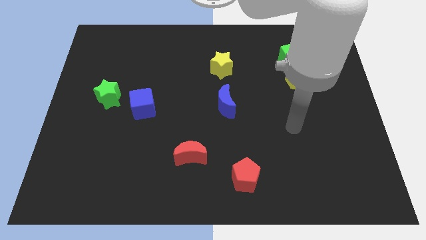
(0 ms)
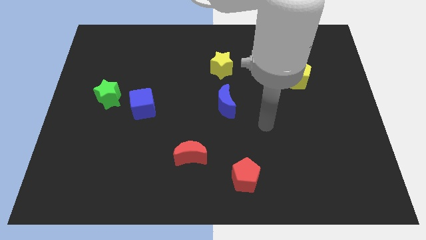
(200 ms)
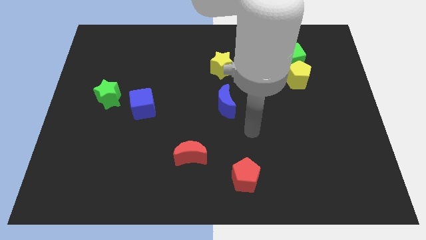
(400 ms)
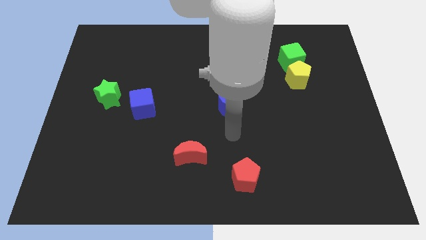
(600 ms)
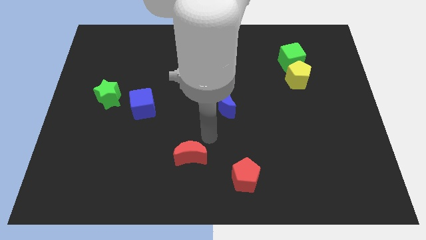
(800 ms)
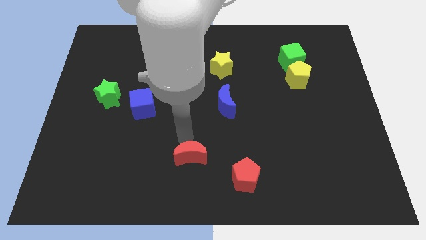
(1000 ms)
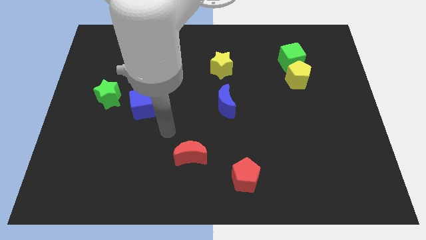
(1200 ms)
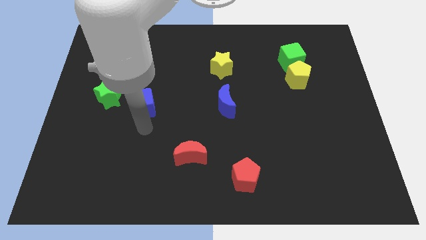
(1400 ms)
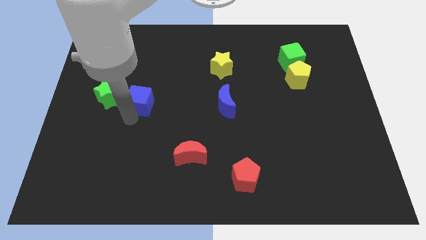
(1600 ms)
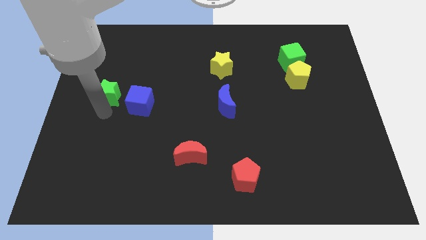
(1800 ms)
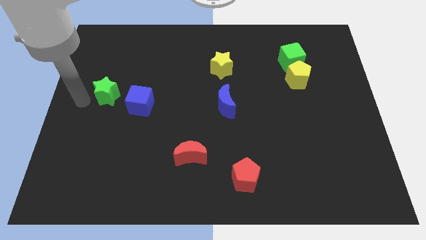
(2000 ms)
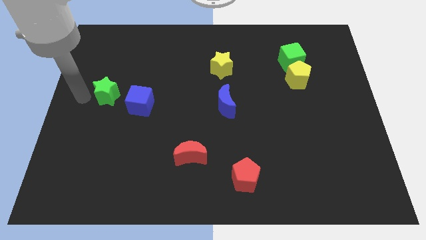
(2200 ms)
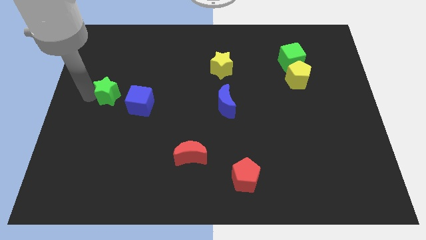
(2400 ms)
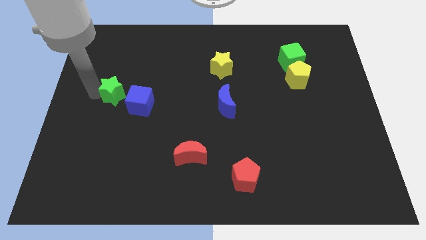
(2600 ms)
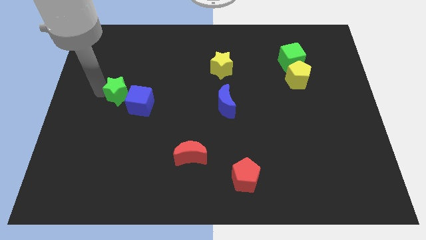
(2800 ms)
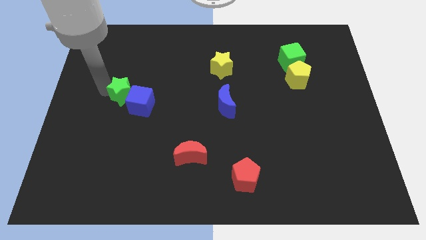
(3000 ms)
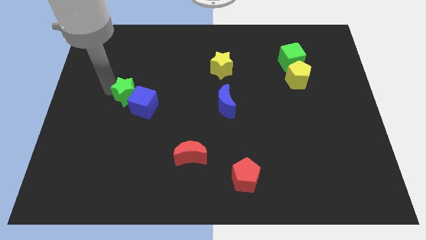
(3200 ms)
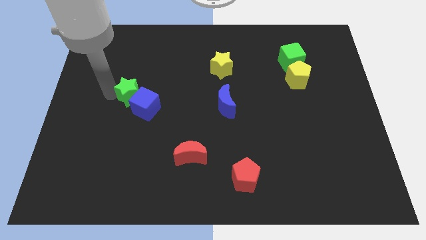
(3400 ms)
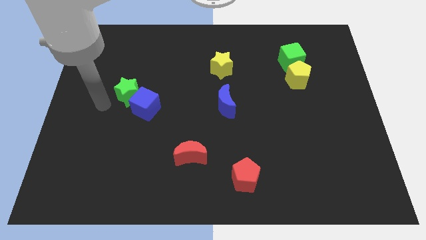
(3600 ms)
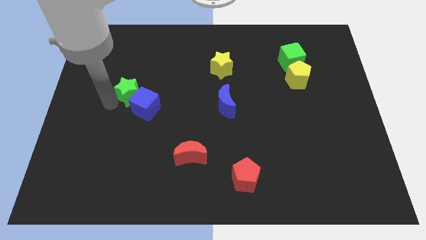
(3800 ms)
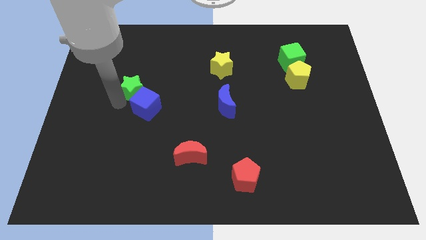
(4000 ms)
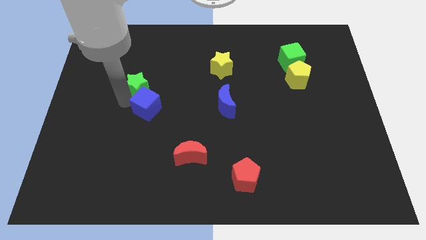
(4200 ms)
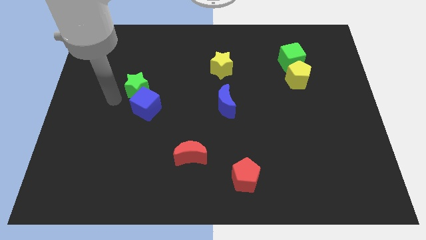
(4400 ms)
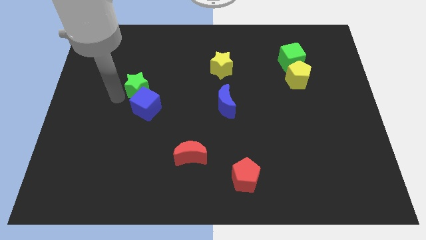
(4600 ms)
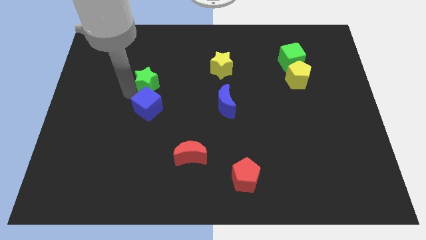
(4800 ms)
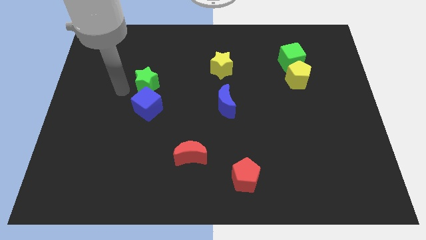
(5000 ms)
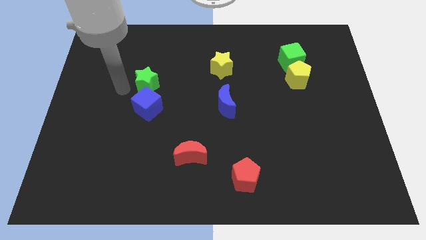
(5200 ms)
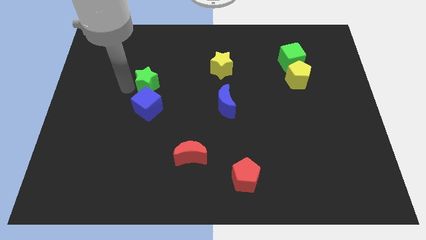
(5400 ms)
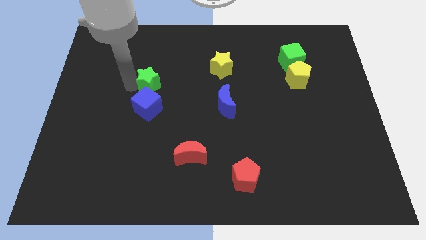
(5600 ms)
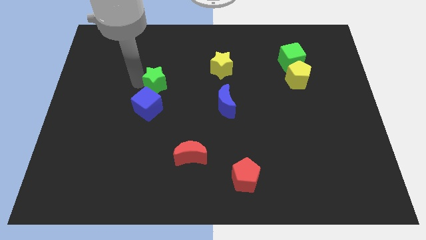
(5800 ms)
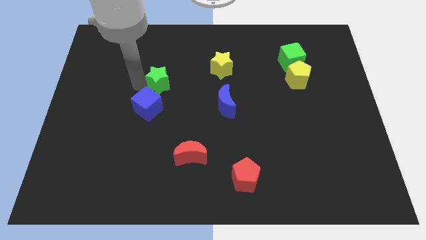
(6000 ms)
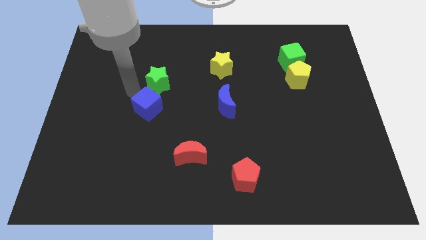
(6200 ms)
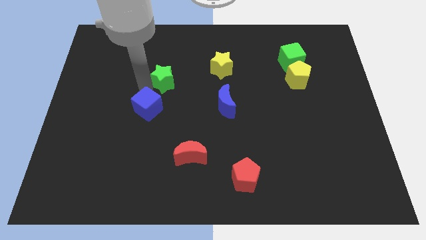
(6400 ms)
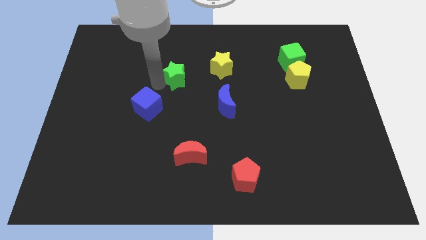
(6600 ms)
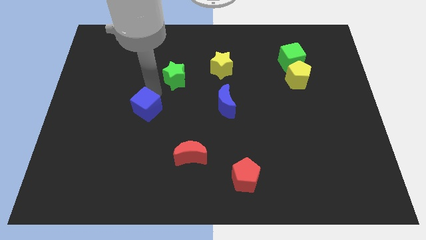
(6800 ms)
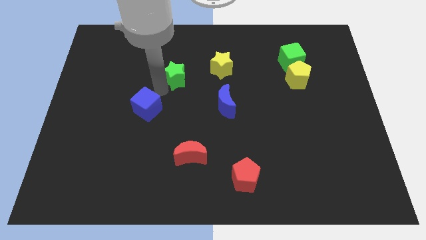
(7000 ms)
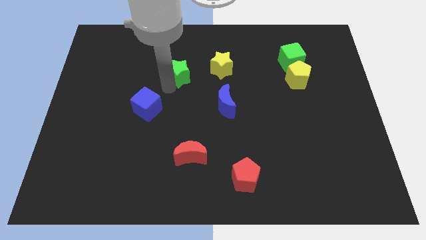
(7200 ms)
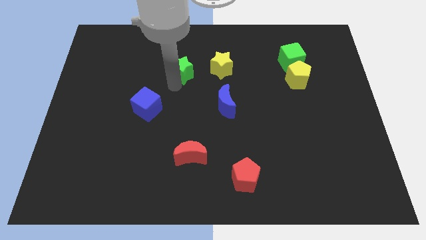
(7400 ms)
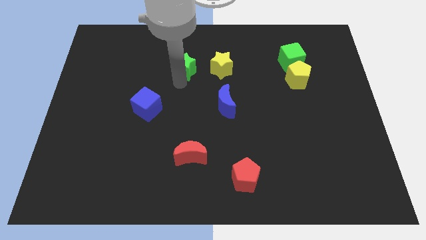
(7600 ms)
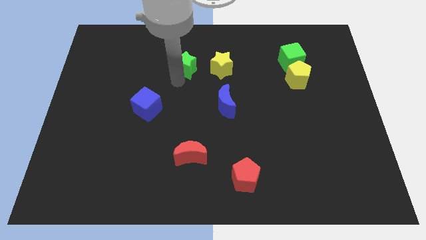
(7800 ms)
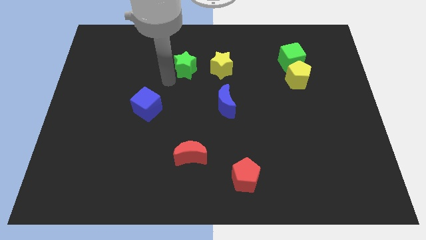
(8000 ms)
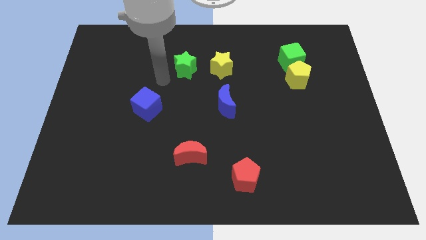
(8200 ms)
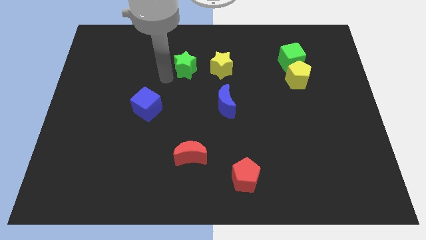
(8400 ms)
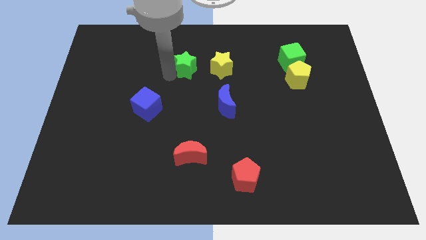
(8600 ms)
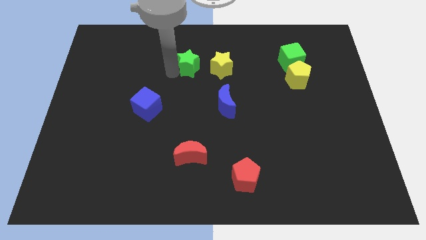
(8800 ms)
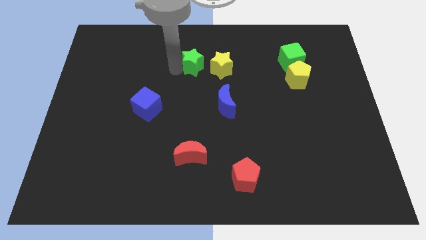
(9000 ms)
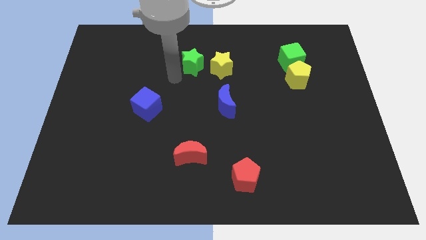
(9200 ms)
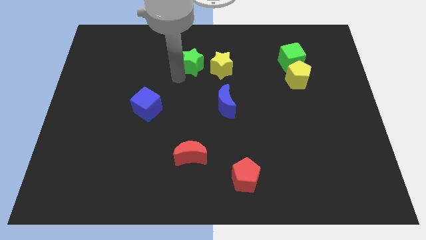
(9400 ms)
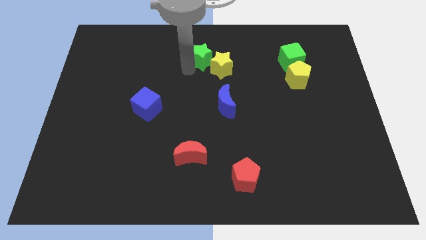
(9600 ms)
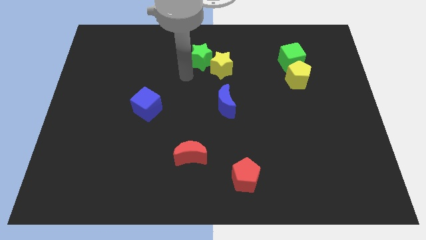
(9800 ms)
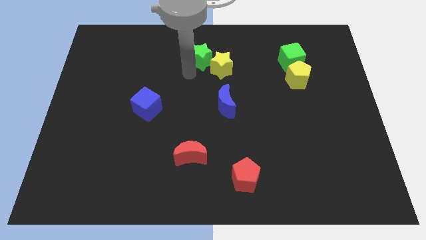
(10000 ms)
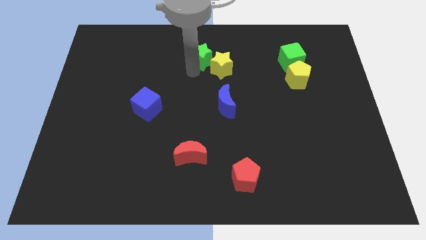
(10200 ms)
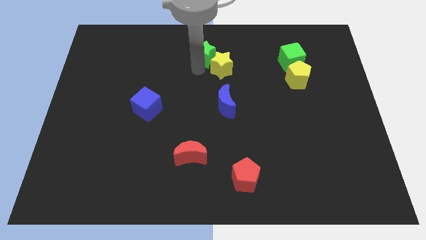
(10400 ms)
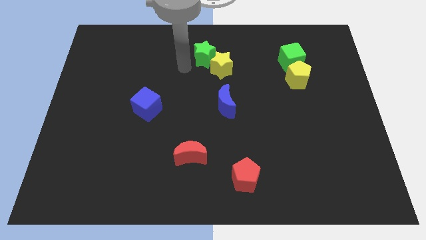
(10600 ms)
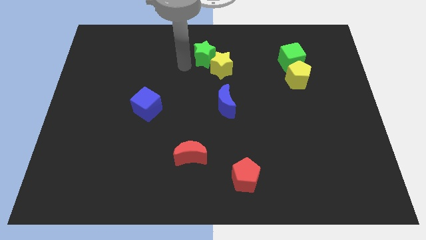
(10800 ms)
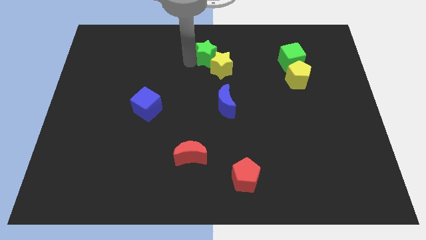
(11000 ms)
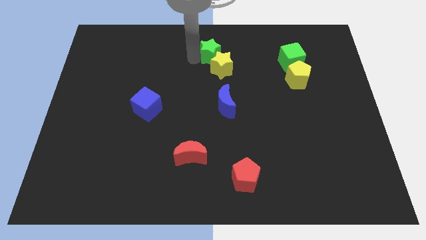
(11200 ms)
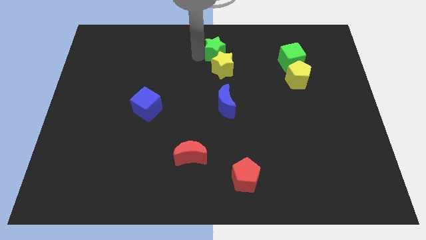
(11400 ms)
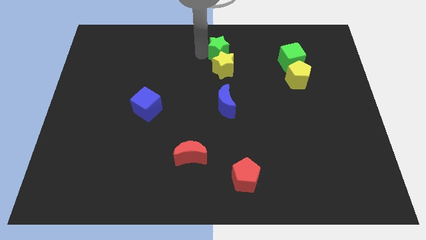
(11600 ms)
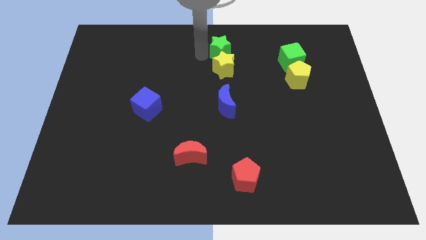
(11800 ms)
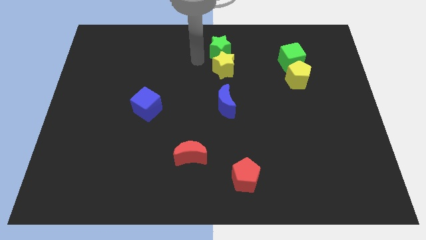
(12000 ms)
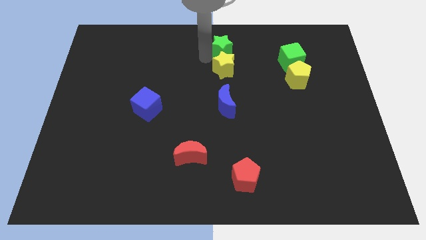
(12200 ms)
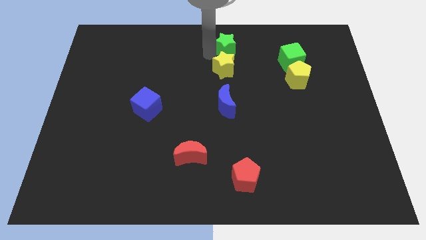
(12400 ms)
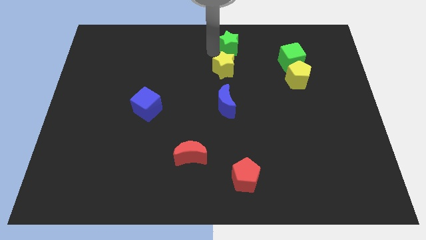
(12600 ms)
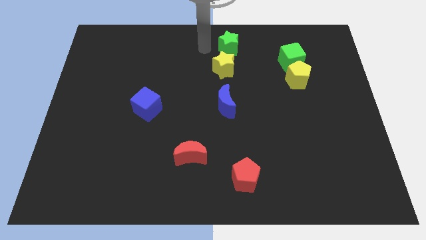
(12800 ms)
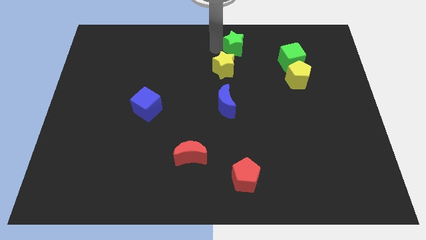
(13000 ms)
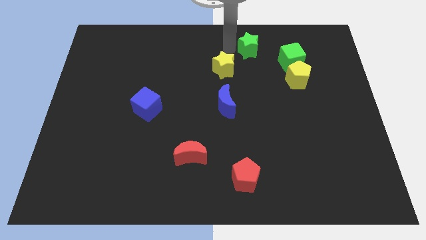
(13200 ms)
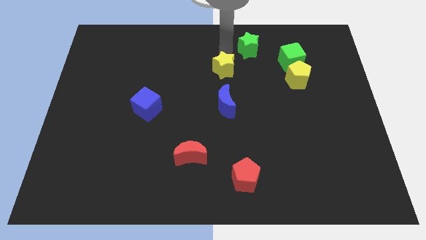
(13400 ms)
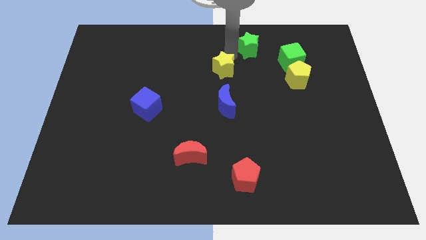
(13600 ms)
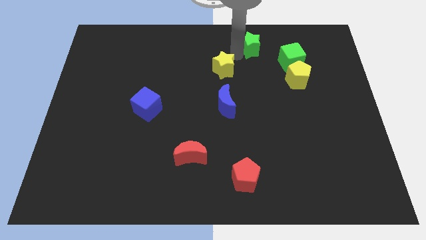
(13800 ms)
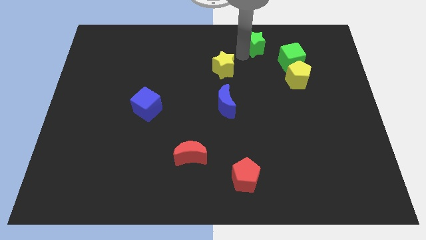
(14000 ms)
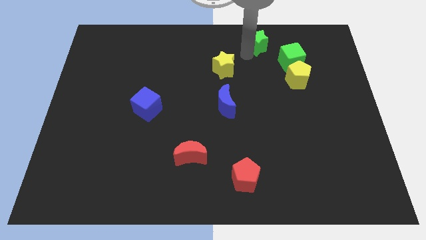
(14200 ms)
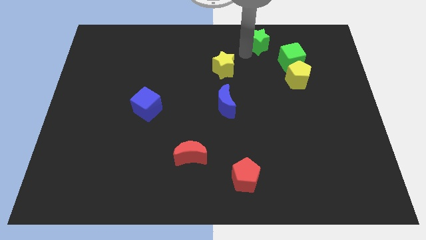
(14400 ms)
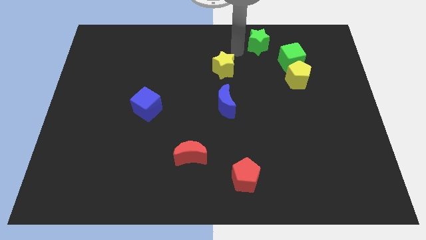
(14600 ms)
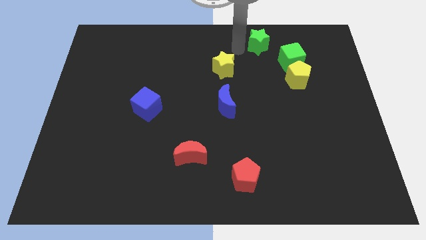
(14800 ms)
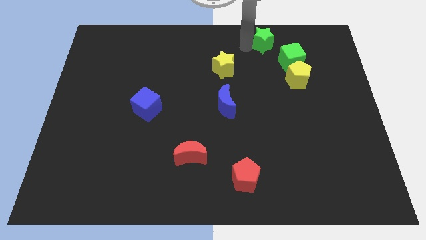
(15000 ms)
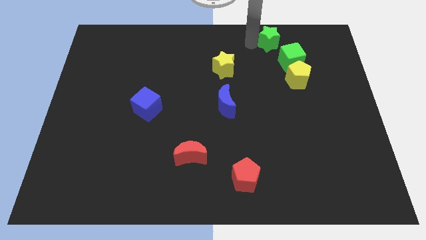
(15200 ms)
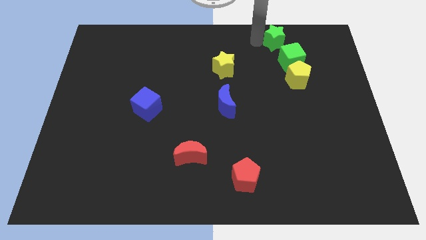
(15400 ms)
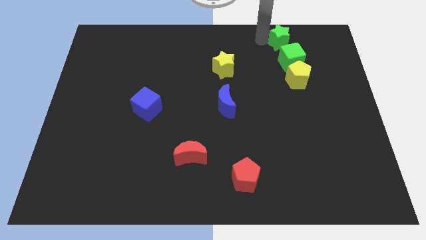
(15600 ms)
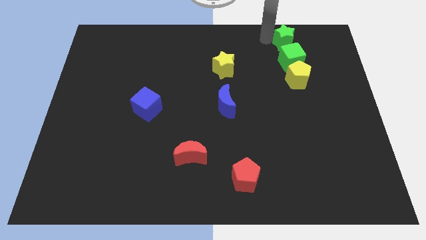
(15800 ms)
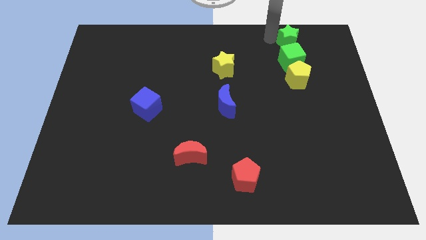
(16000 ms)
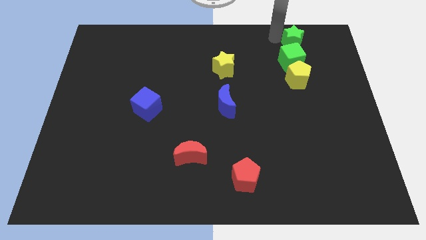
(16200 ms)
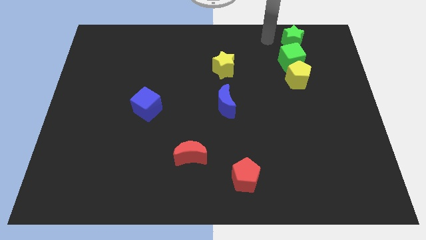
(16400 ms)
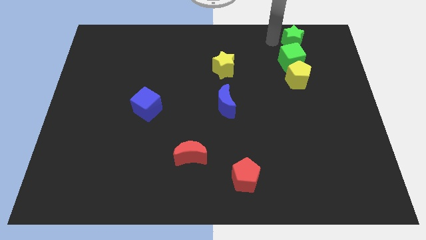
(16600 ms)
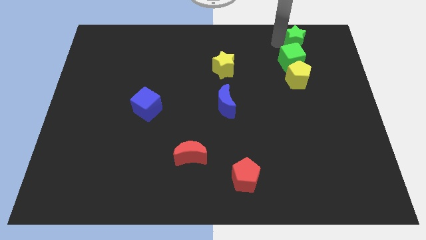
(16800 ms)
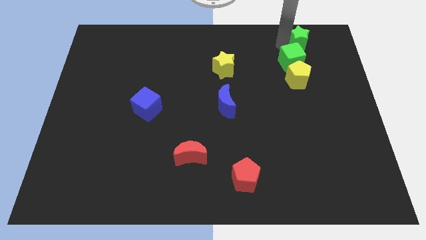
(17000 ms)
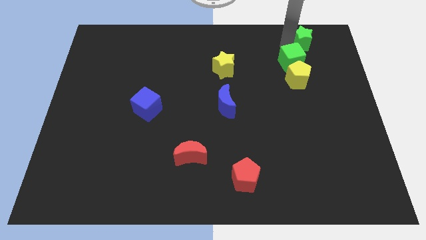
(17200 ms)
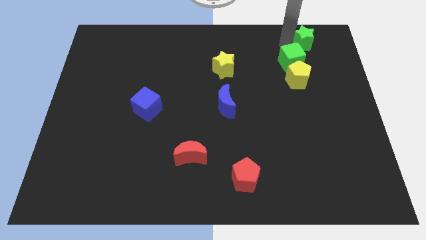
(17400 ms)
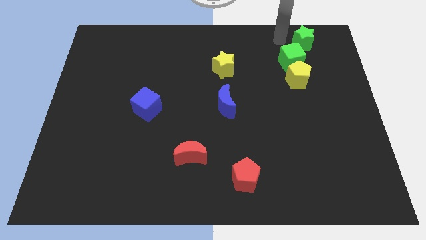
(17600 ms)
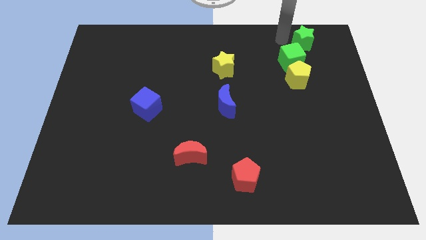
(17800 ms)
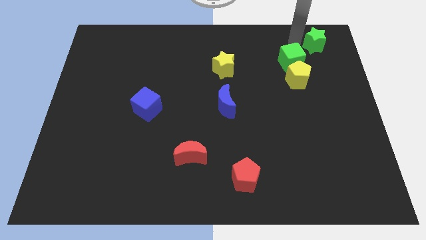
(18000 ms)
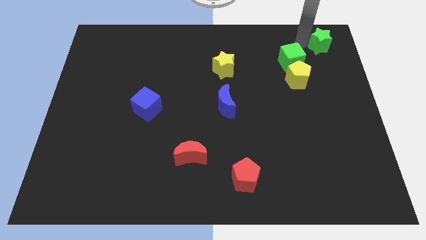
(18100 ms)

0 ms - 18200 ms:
move the green star to the top right of the board
